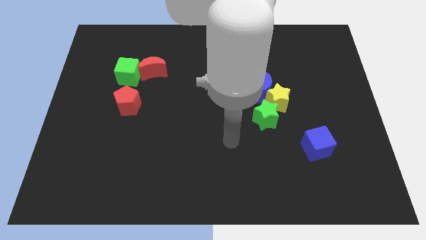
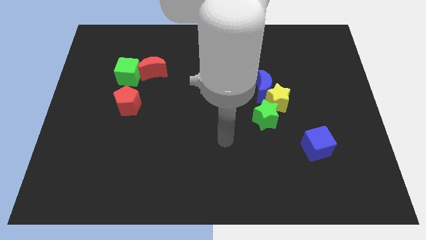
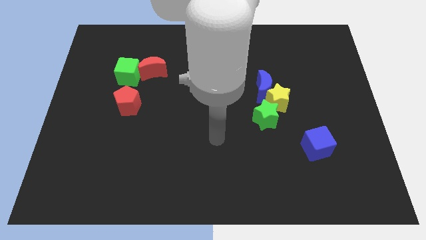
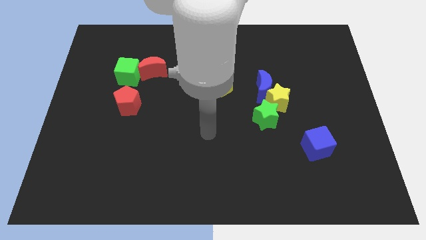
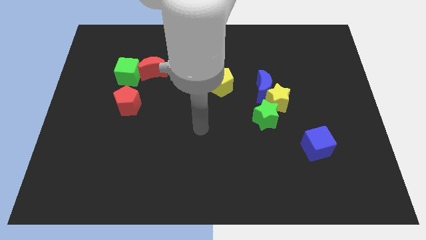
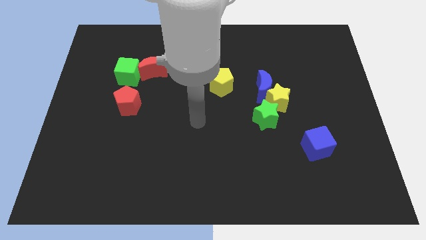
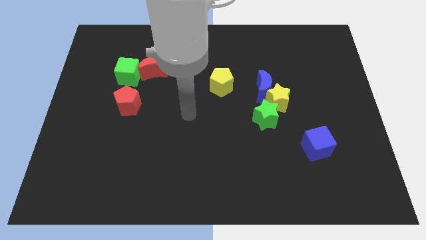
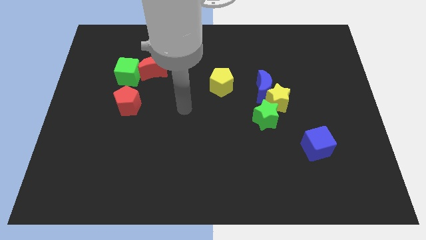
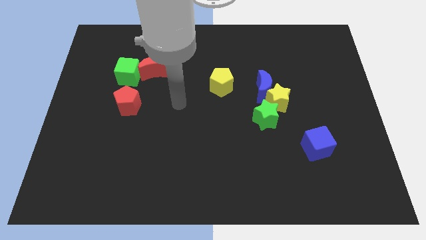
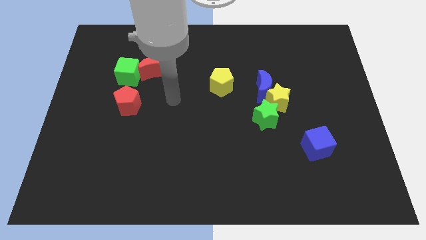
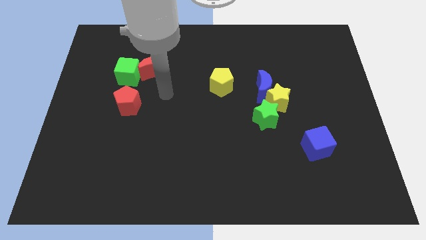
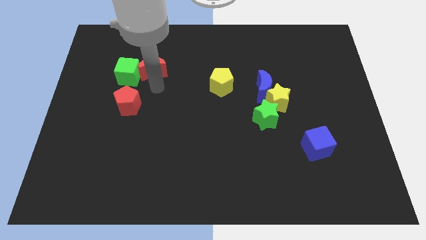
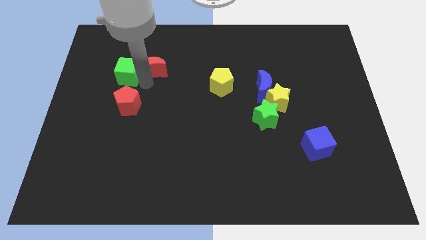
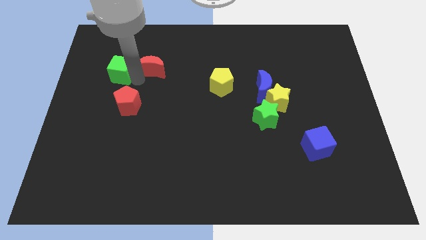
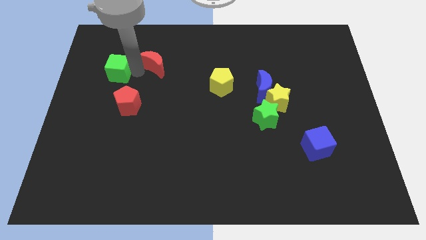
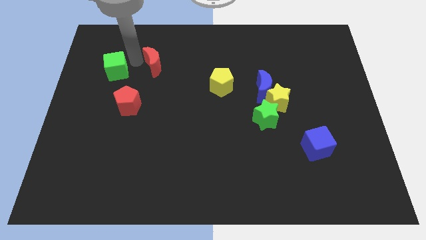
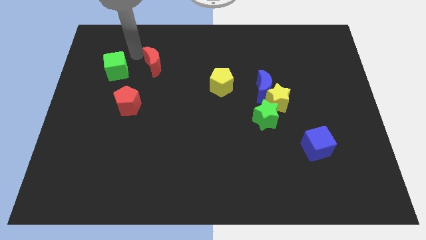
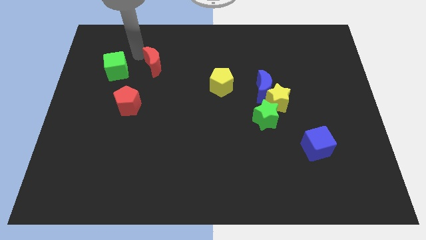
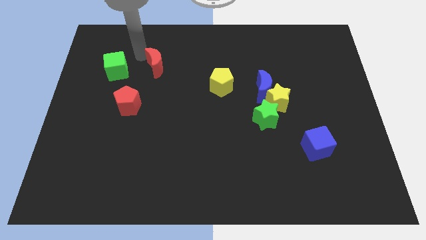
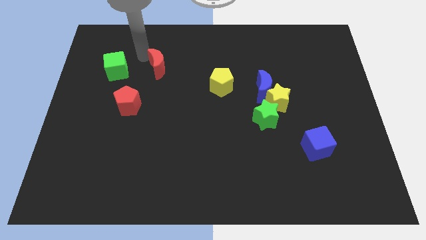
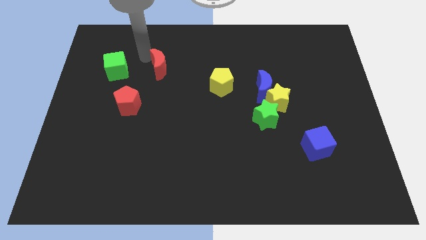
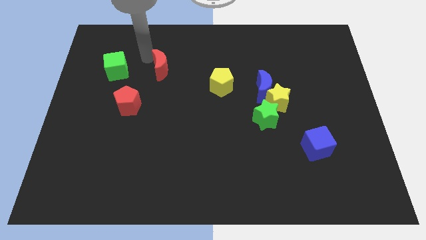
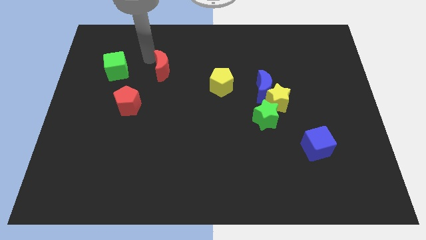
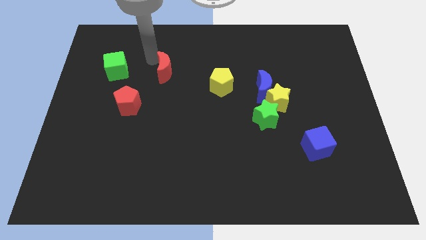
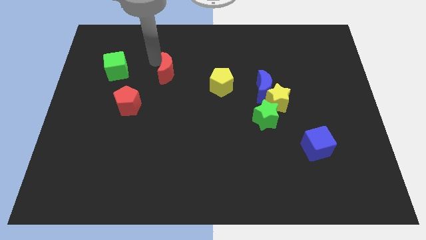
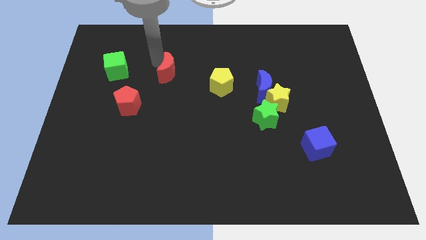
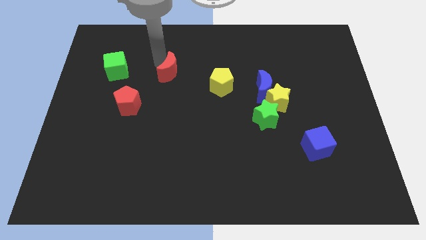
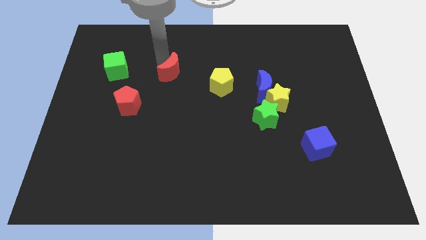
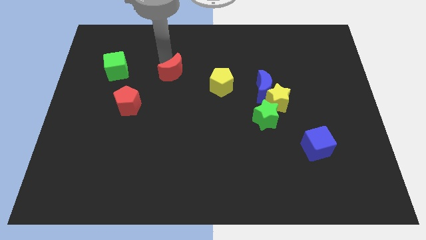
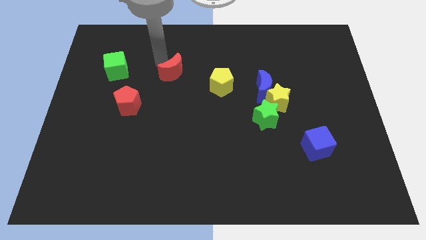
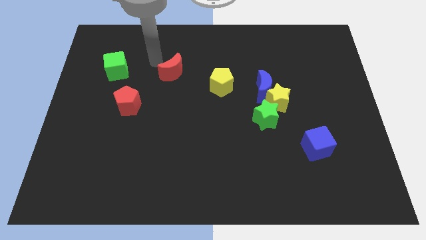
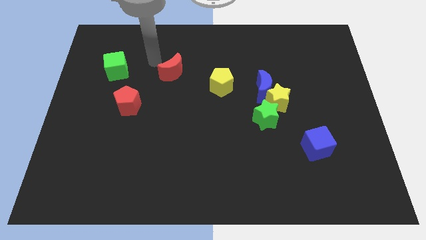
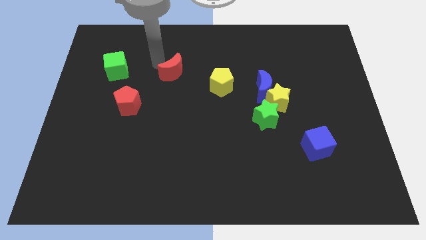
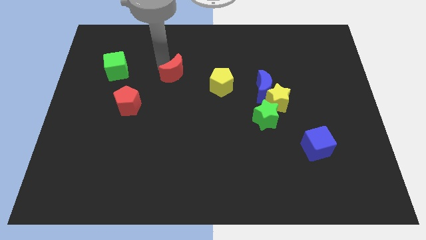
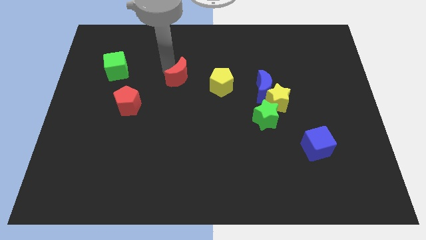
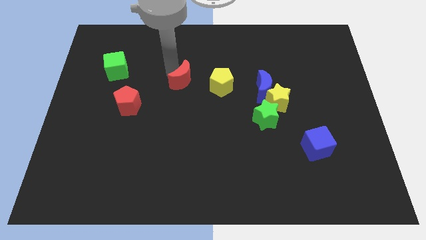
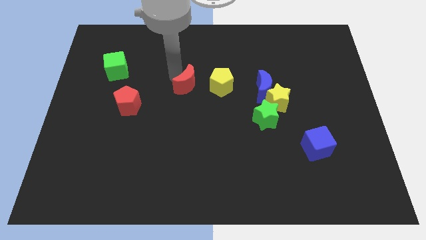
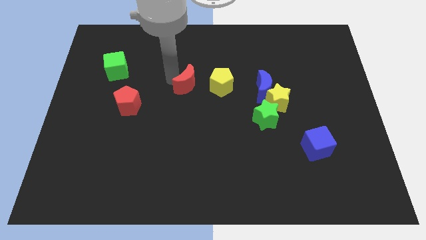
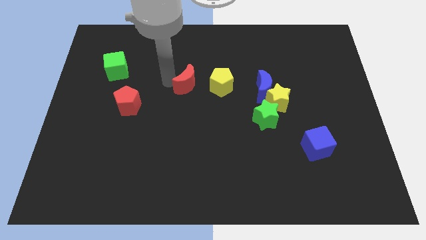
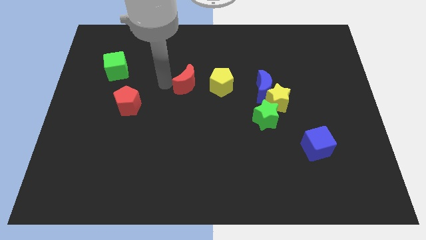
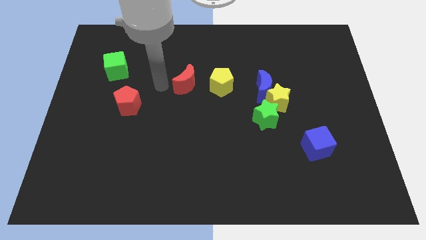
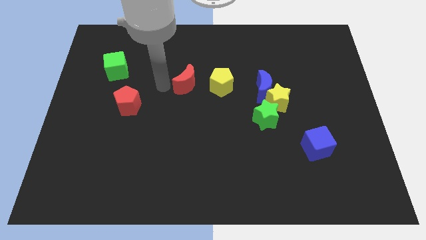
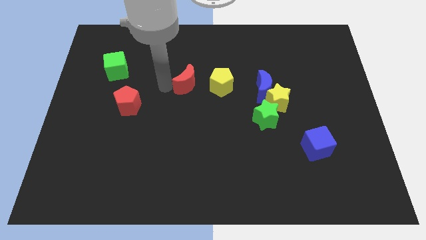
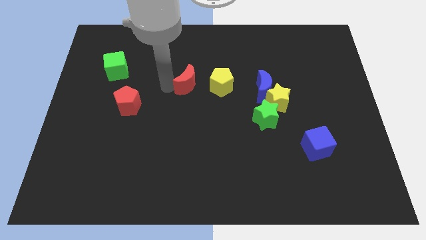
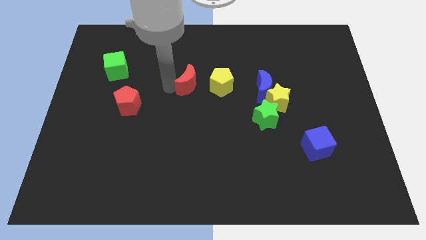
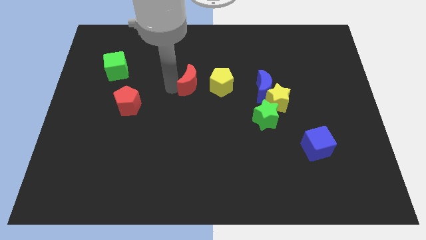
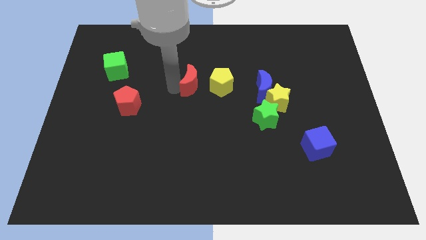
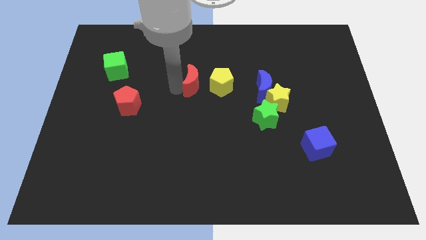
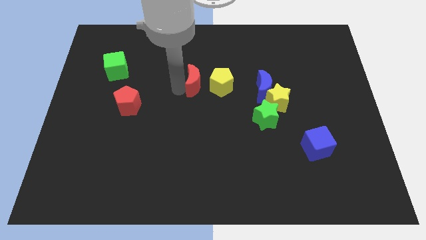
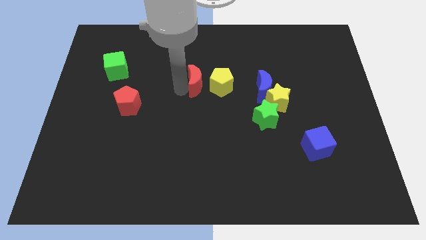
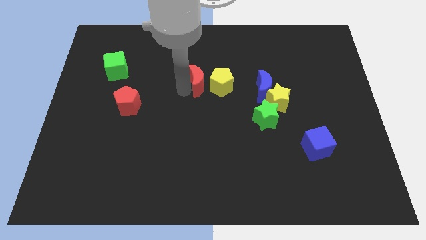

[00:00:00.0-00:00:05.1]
push the red moon to the yellow pentagon
